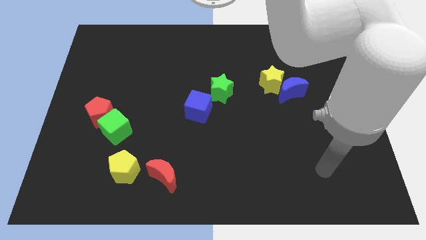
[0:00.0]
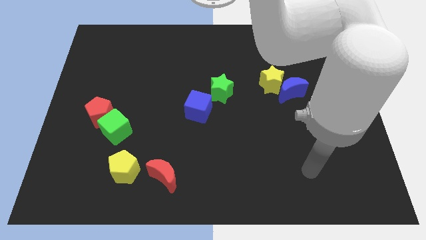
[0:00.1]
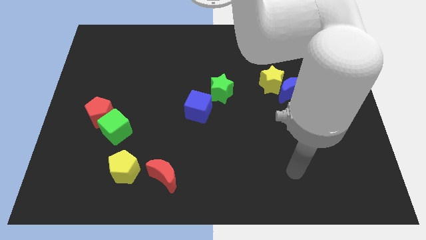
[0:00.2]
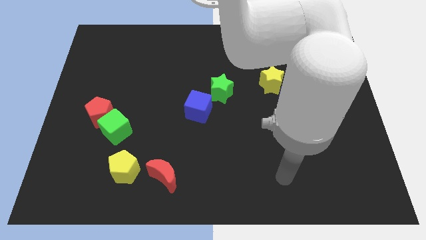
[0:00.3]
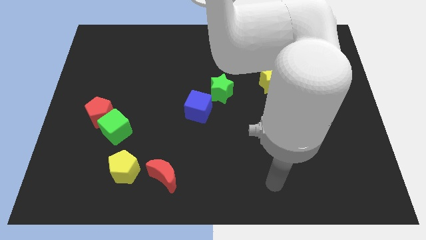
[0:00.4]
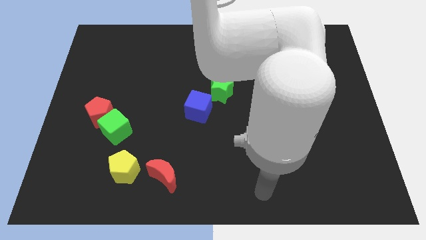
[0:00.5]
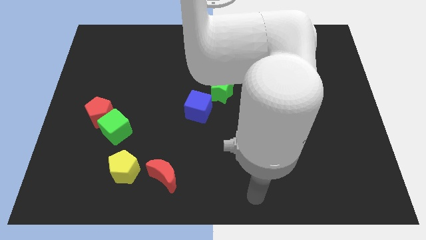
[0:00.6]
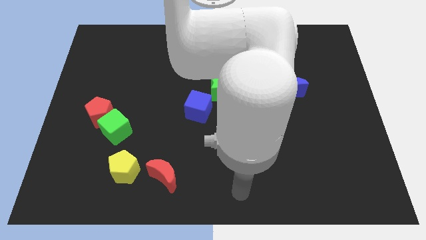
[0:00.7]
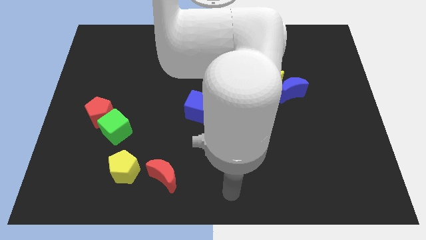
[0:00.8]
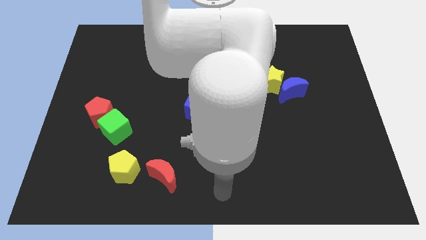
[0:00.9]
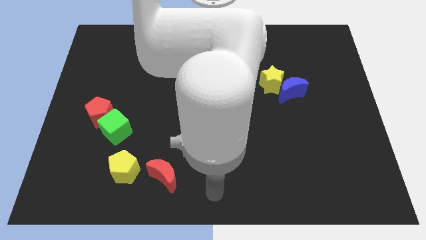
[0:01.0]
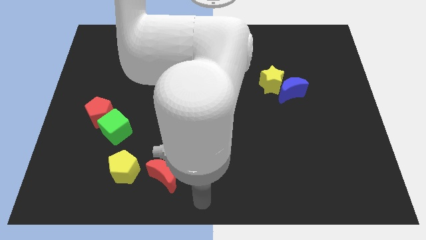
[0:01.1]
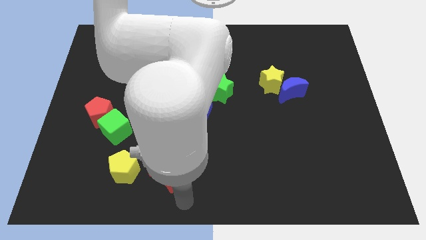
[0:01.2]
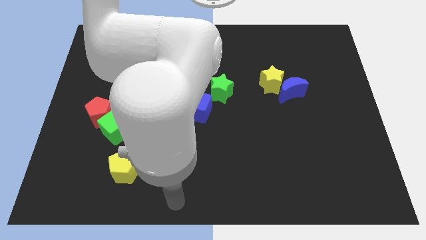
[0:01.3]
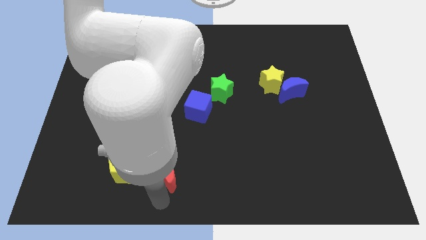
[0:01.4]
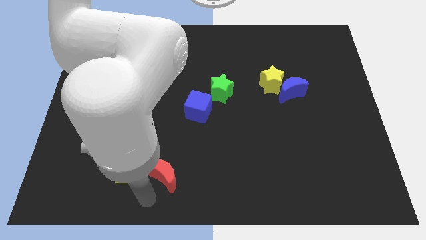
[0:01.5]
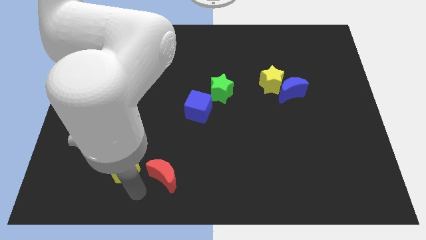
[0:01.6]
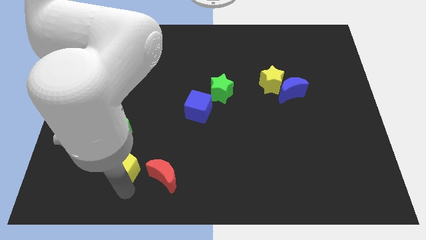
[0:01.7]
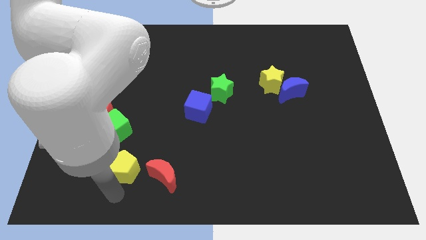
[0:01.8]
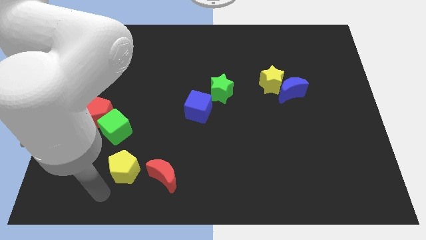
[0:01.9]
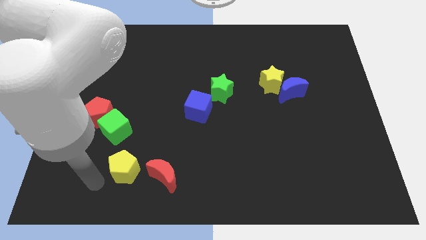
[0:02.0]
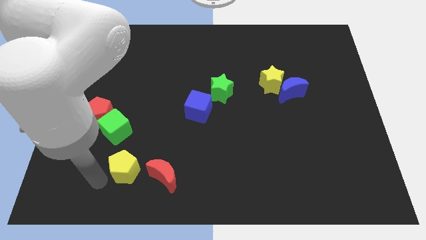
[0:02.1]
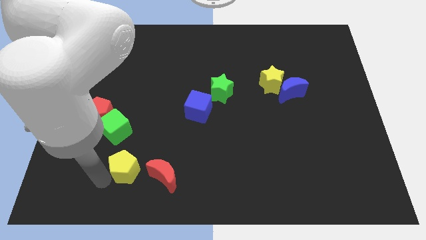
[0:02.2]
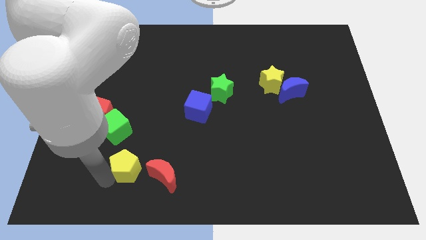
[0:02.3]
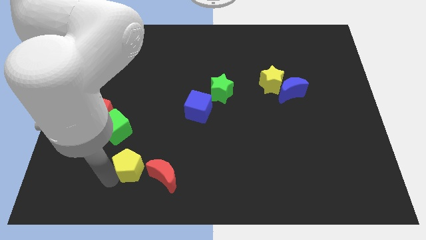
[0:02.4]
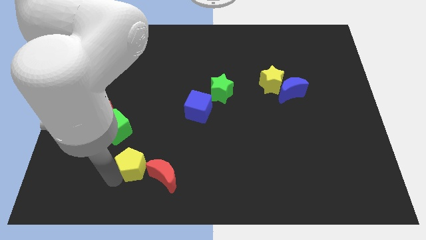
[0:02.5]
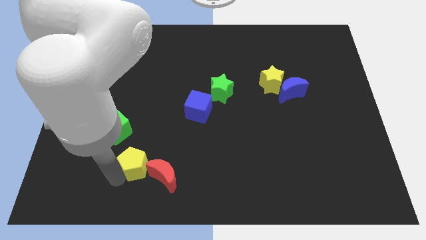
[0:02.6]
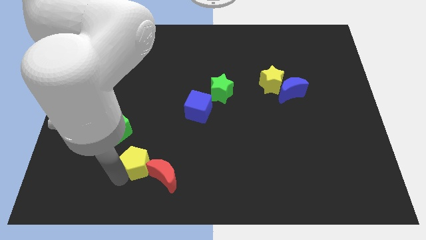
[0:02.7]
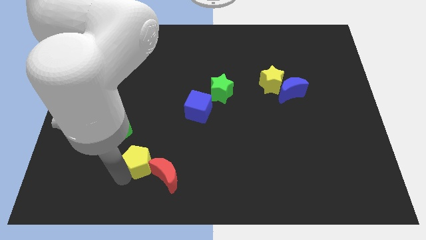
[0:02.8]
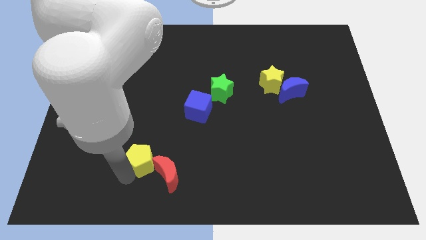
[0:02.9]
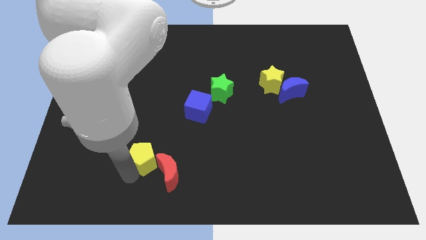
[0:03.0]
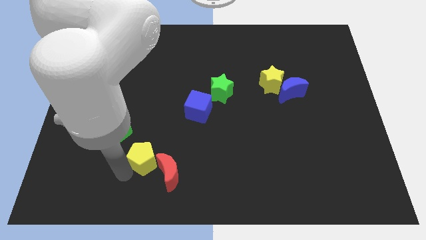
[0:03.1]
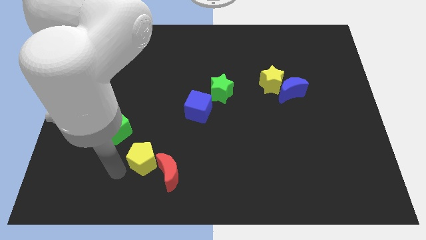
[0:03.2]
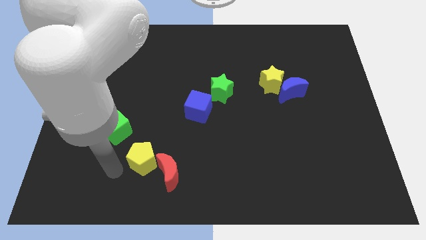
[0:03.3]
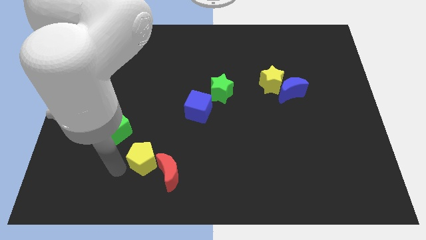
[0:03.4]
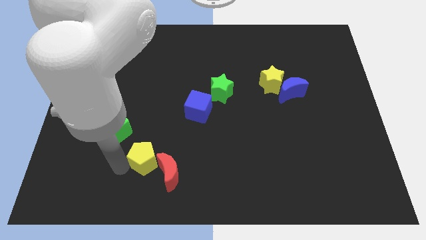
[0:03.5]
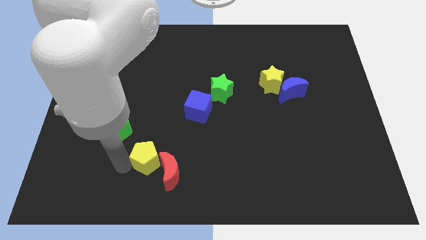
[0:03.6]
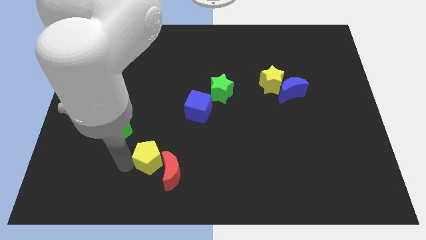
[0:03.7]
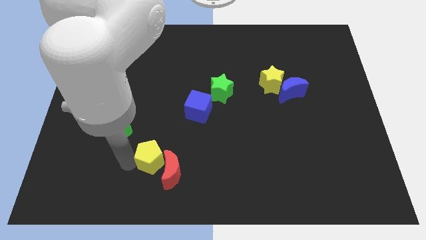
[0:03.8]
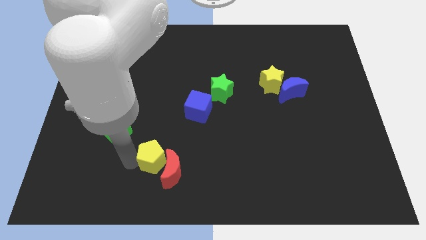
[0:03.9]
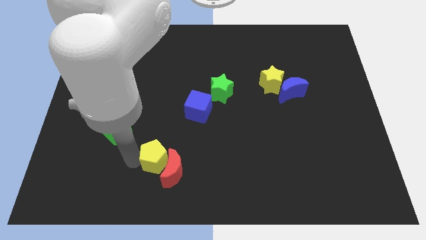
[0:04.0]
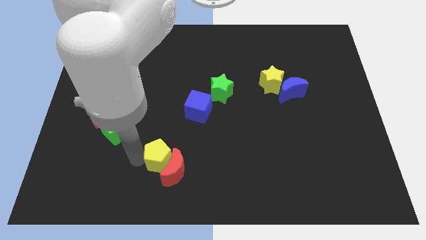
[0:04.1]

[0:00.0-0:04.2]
slide the yellow pentagon a bit to the right

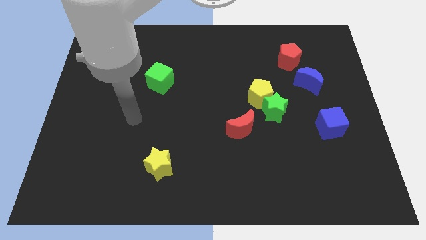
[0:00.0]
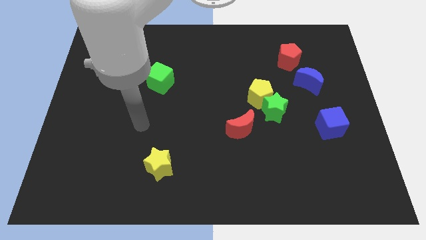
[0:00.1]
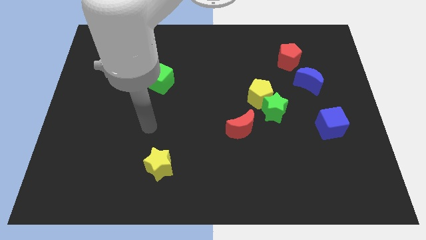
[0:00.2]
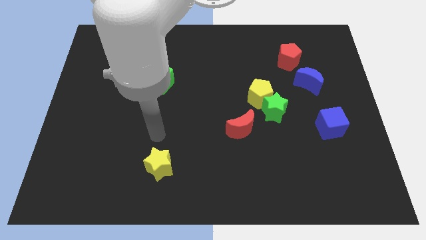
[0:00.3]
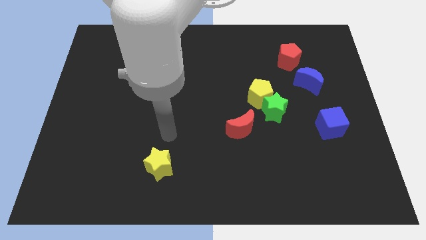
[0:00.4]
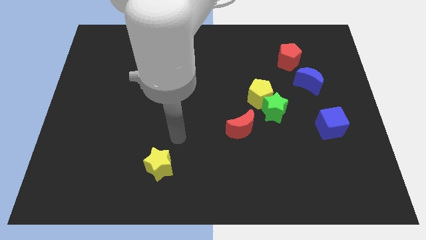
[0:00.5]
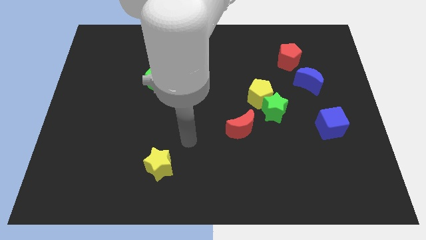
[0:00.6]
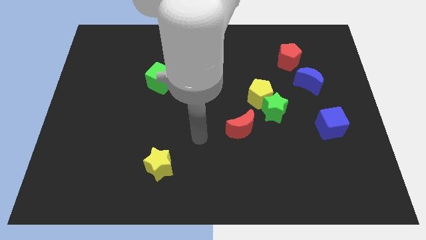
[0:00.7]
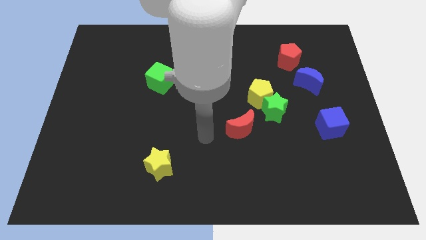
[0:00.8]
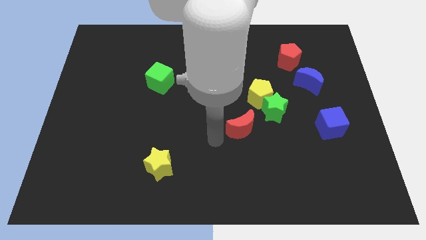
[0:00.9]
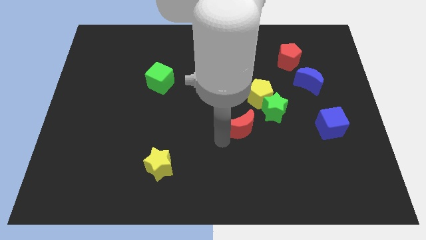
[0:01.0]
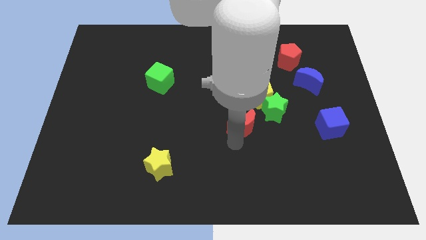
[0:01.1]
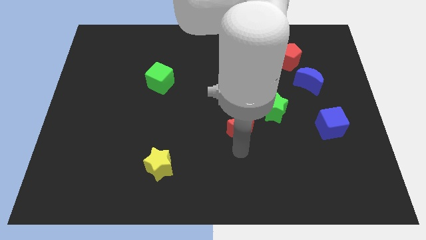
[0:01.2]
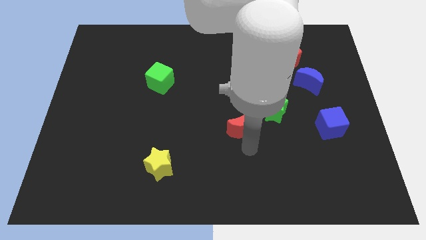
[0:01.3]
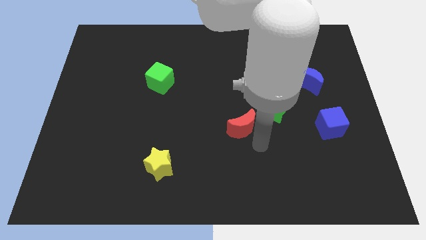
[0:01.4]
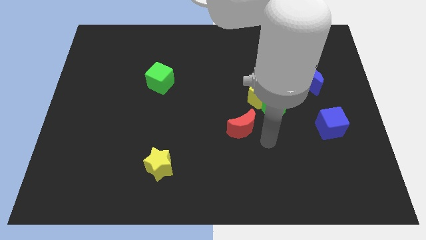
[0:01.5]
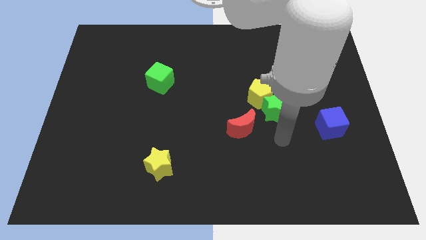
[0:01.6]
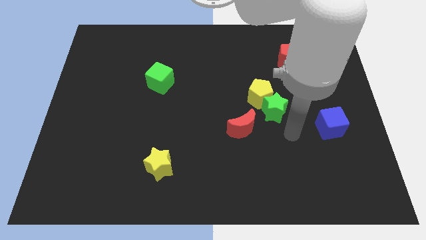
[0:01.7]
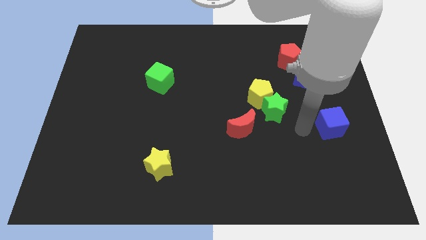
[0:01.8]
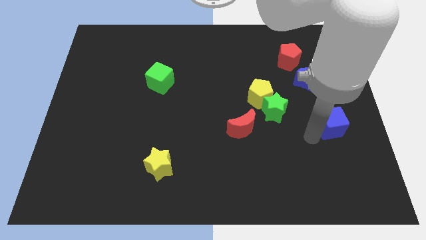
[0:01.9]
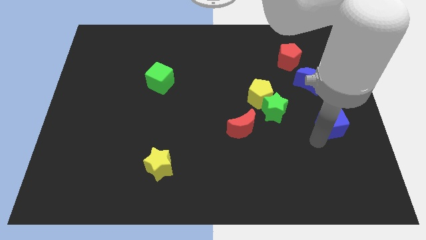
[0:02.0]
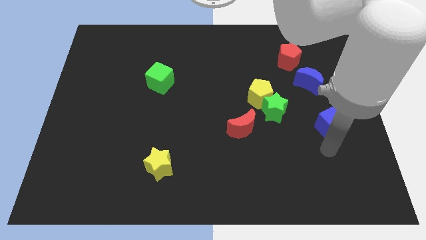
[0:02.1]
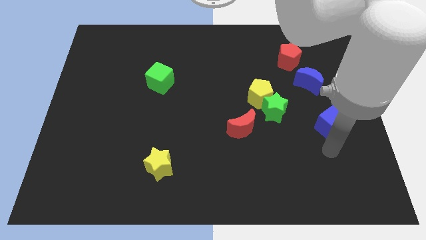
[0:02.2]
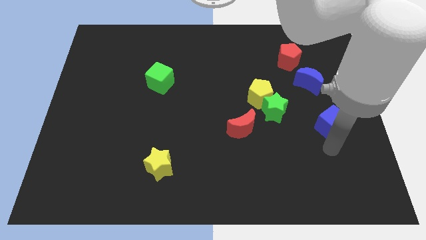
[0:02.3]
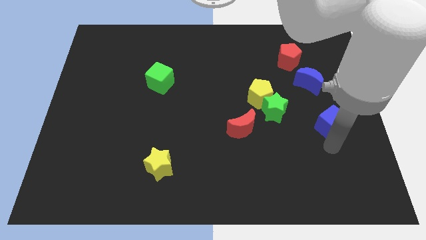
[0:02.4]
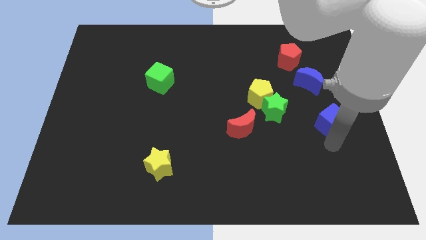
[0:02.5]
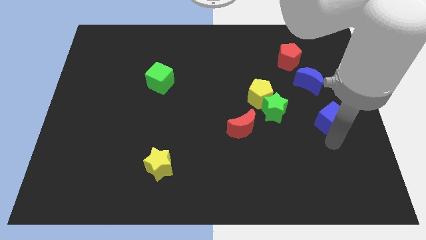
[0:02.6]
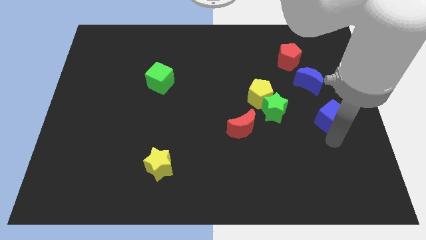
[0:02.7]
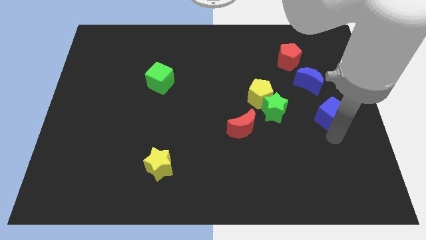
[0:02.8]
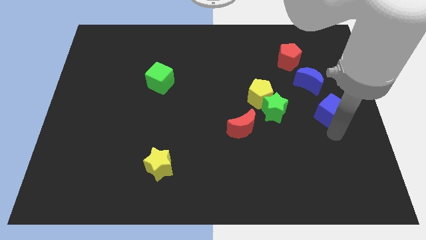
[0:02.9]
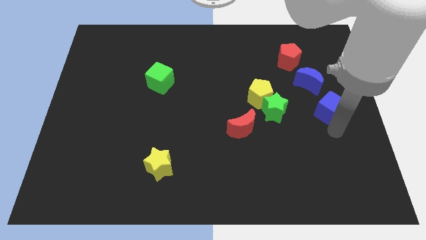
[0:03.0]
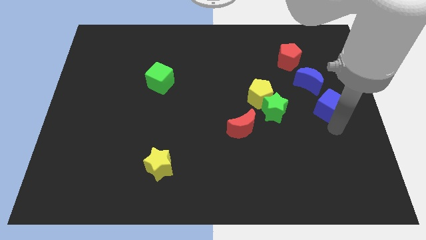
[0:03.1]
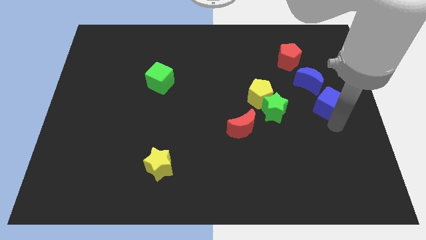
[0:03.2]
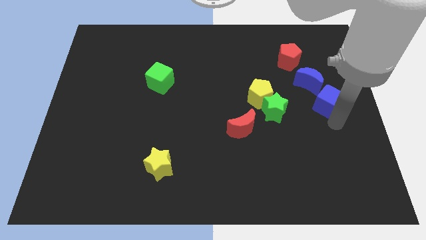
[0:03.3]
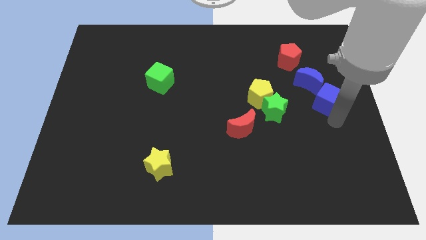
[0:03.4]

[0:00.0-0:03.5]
push the blue cube somewhat upwards

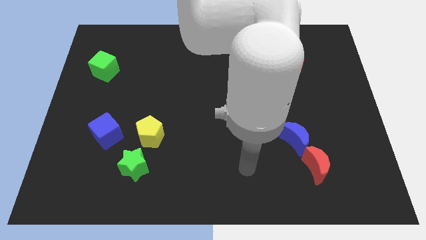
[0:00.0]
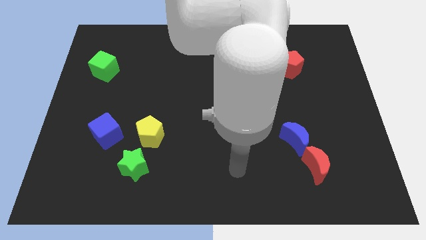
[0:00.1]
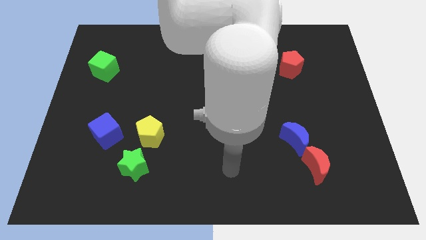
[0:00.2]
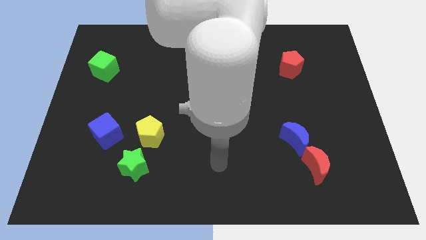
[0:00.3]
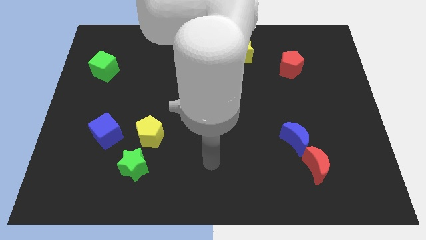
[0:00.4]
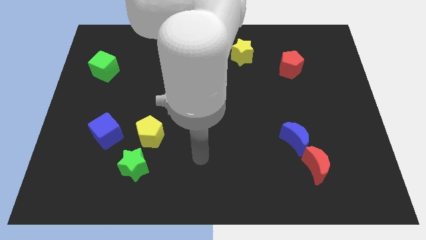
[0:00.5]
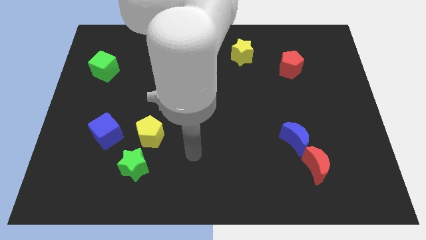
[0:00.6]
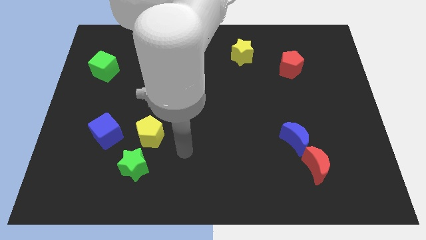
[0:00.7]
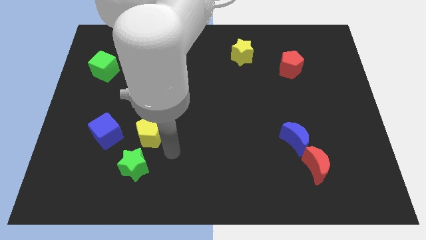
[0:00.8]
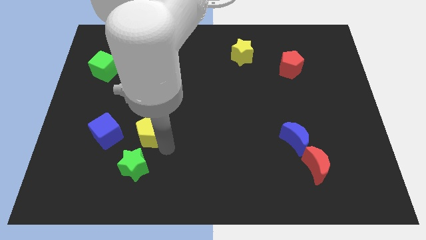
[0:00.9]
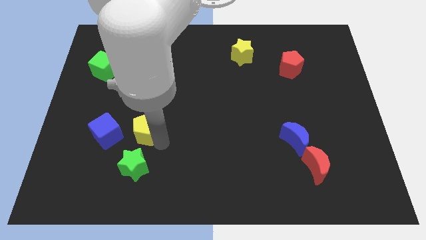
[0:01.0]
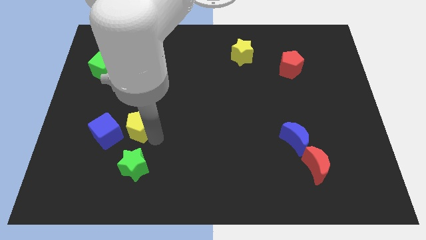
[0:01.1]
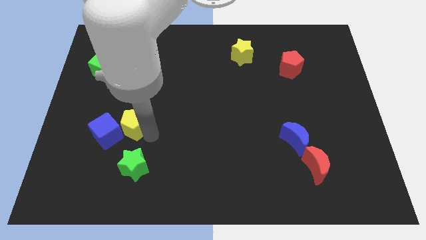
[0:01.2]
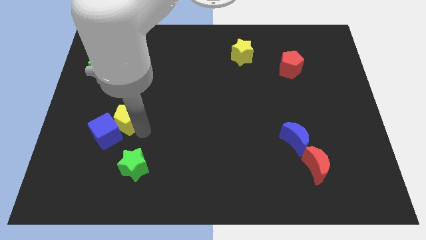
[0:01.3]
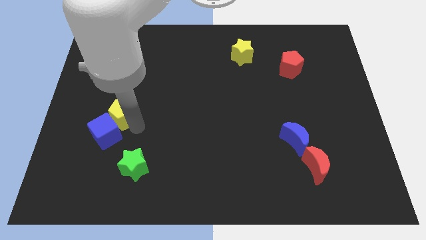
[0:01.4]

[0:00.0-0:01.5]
slide the yellow pentagon up and to the left diagonally a little bit
